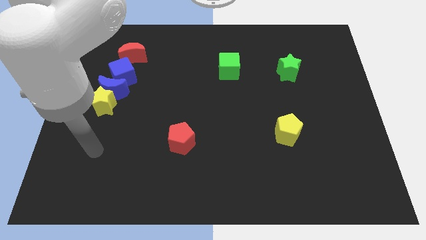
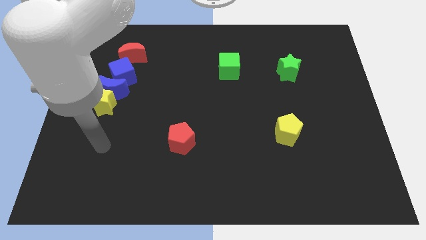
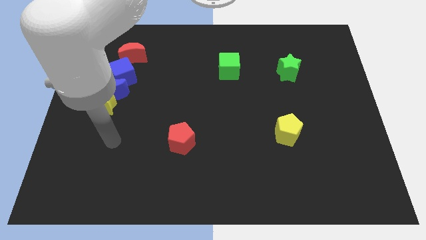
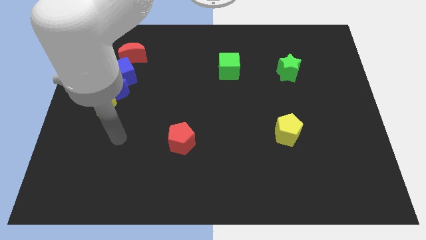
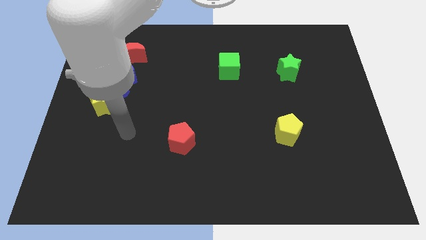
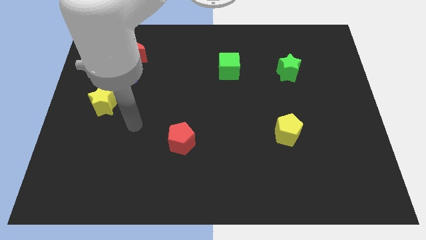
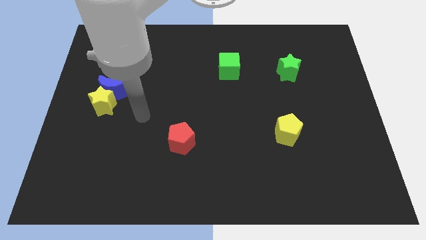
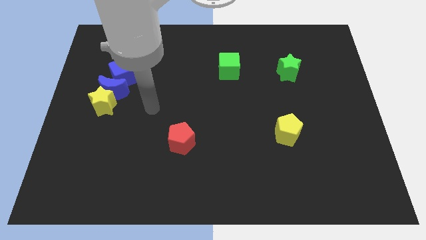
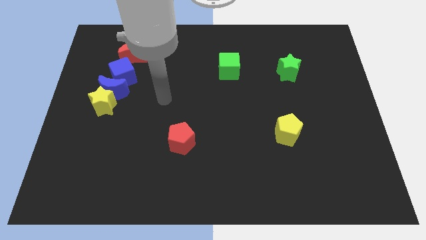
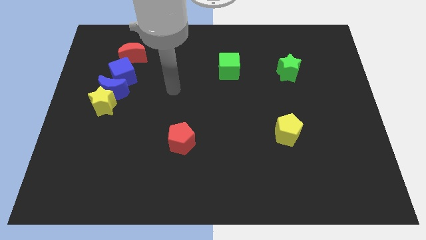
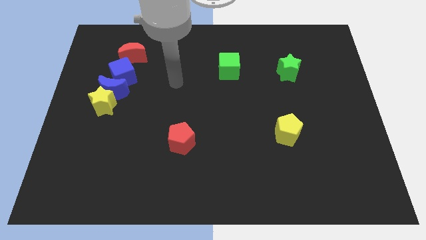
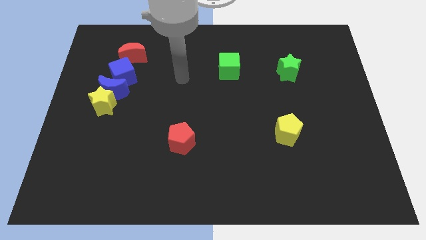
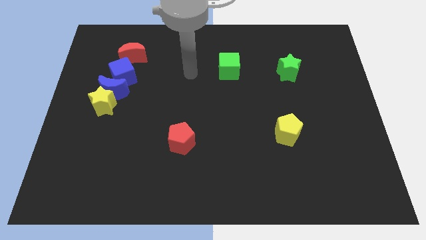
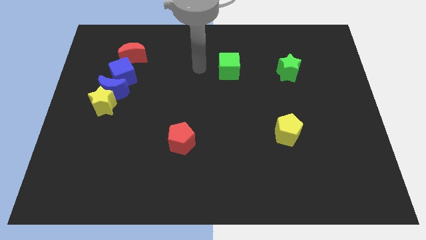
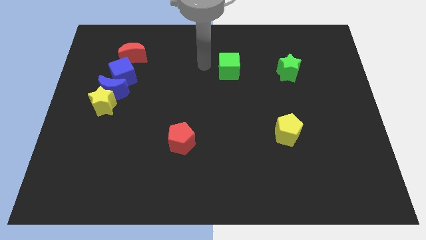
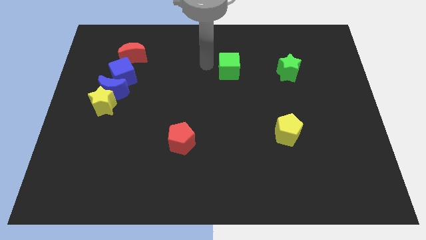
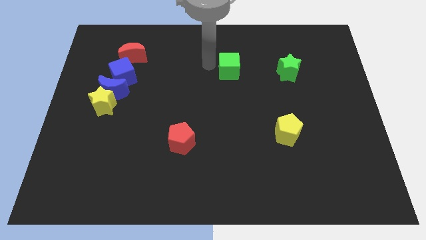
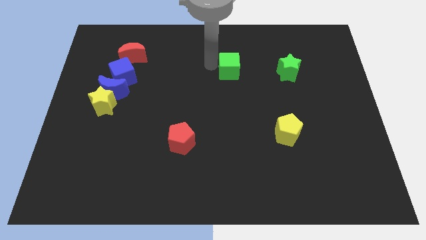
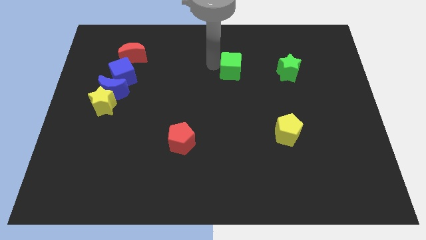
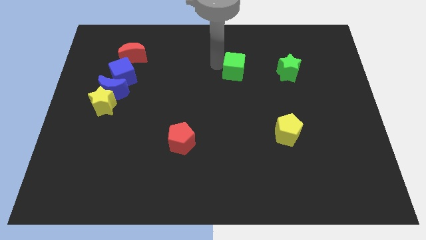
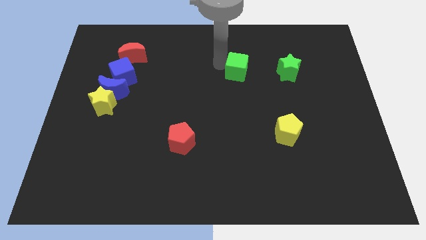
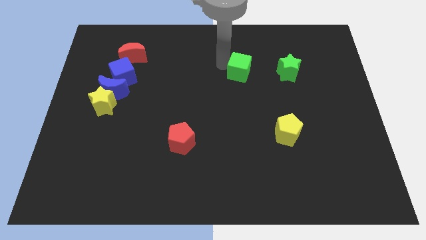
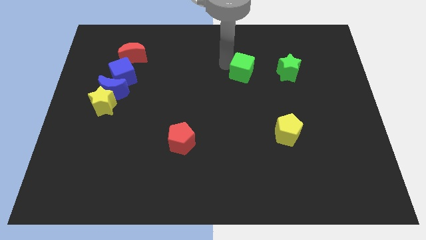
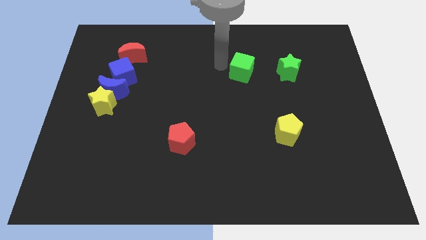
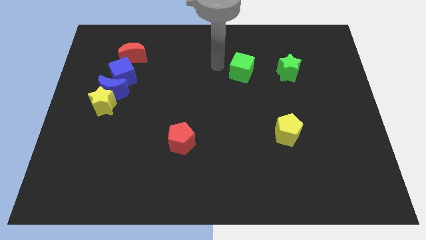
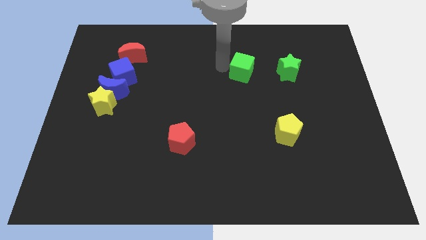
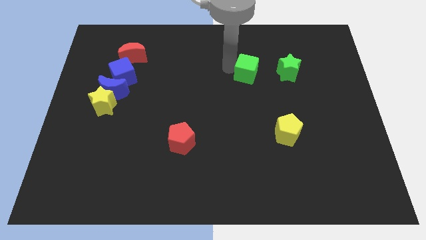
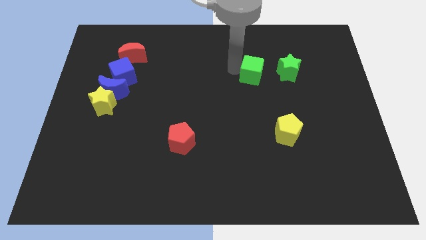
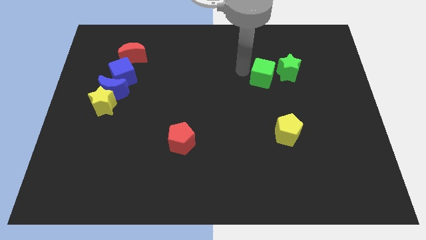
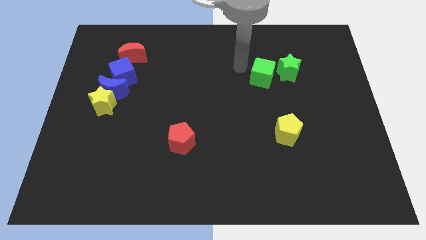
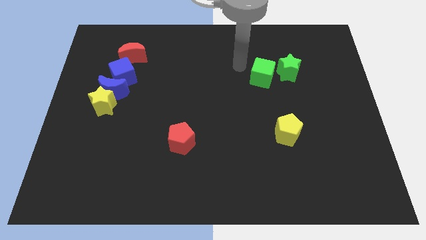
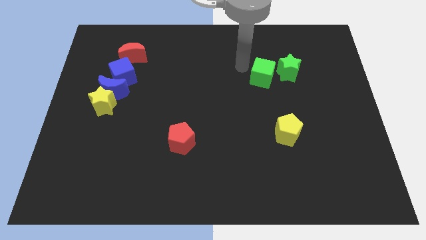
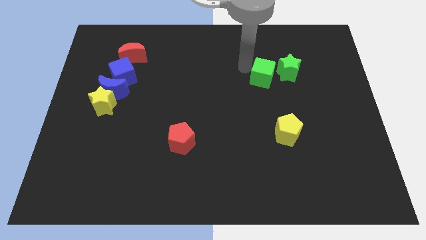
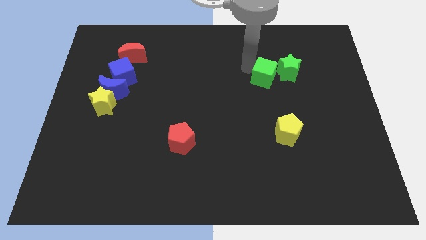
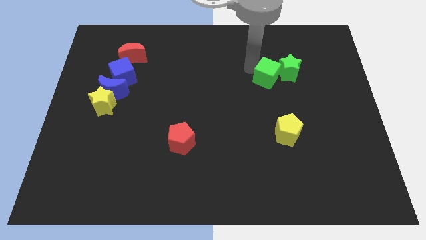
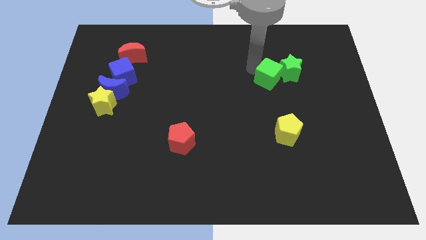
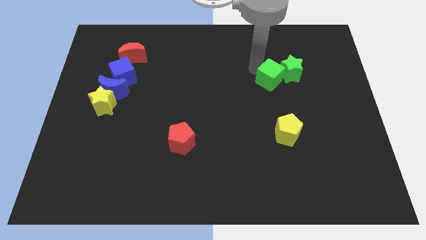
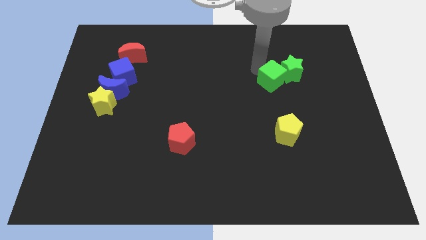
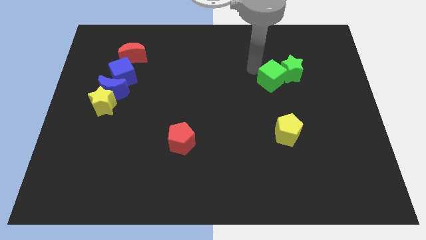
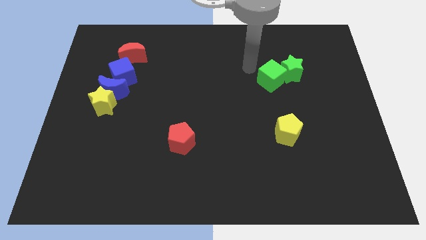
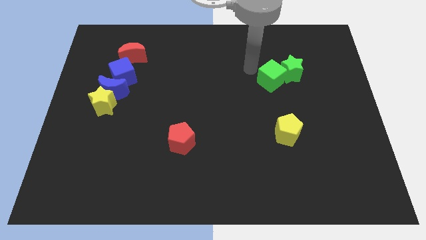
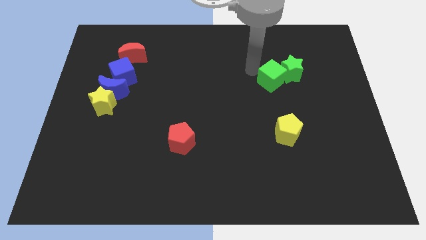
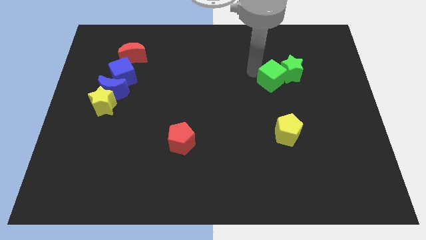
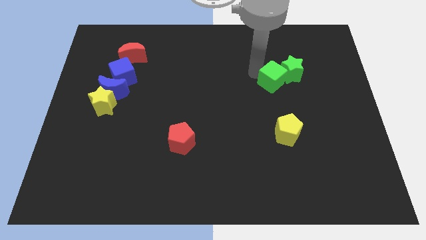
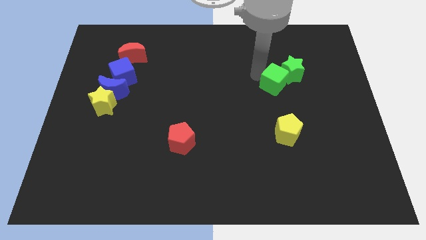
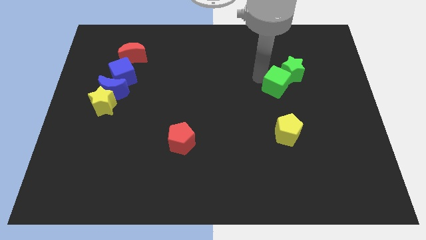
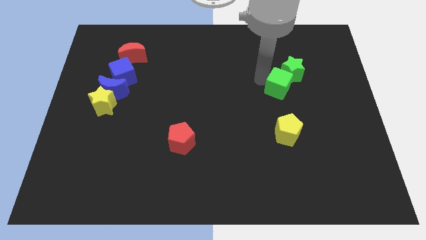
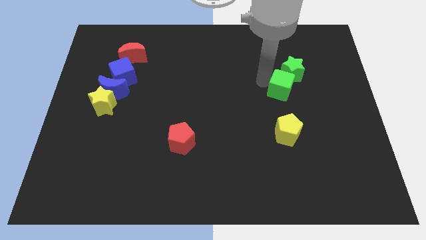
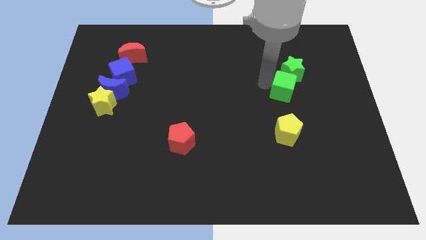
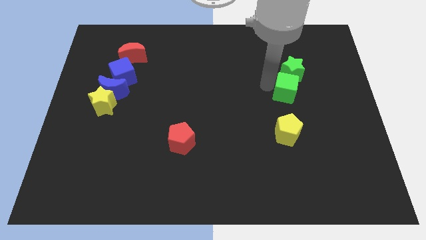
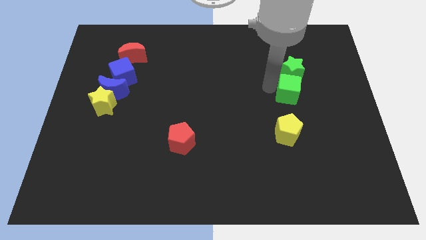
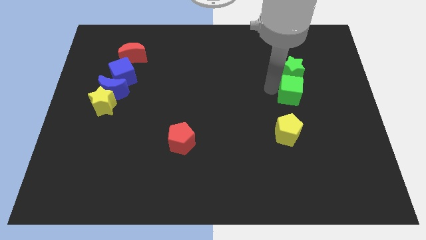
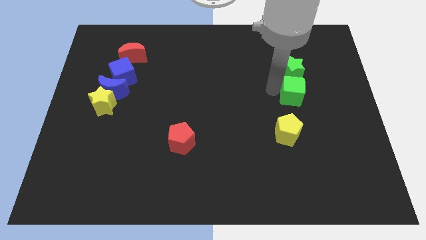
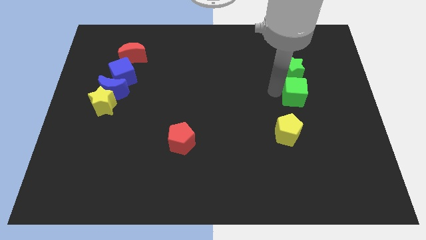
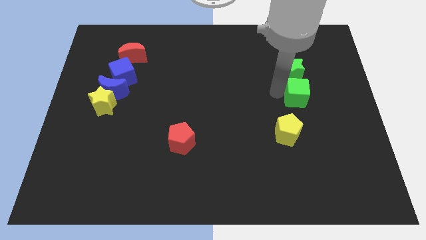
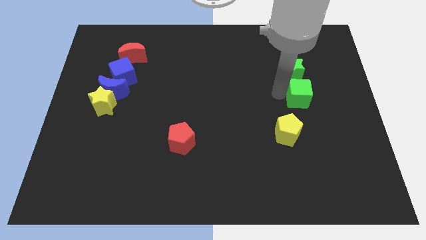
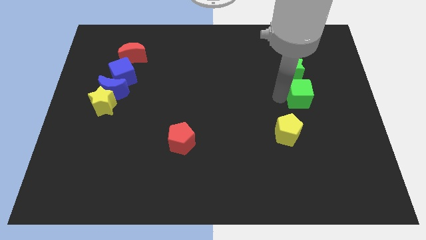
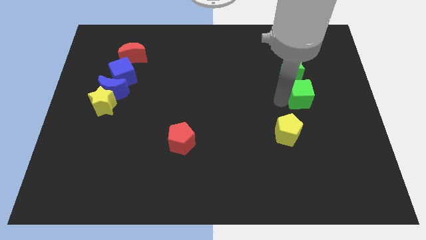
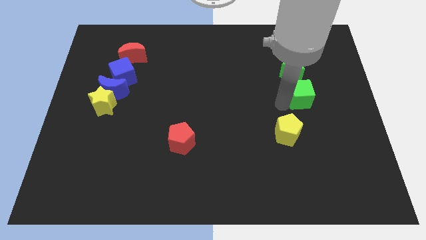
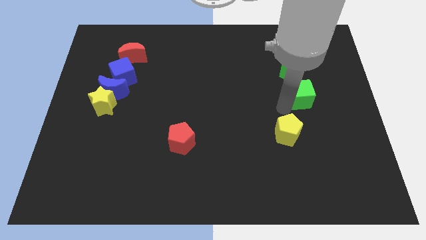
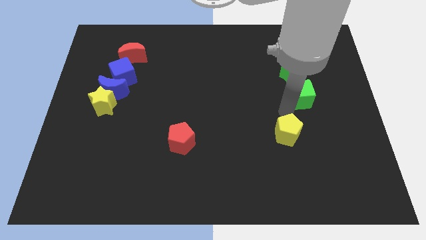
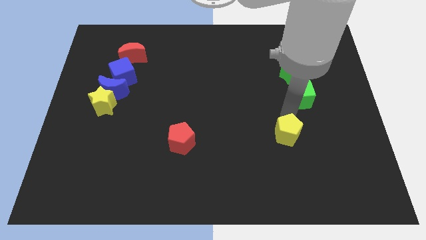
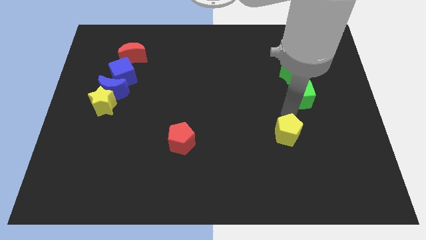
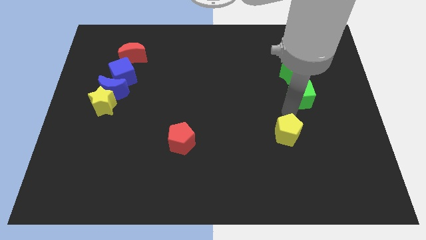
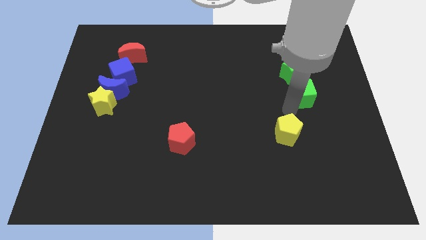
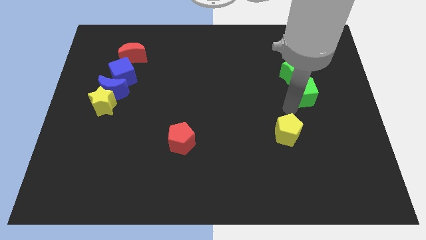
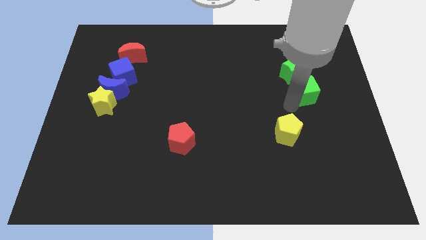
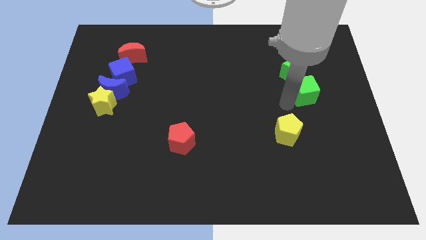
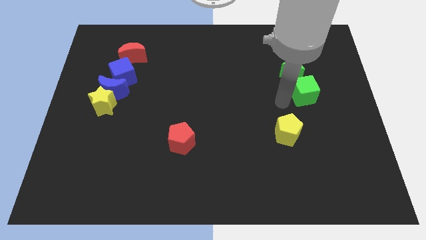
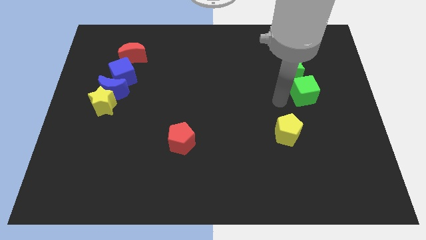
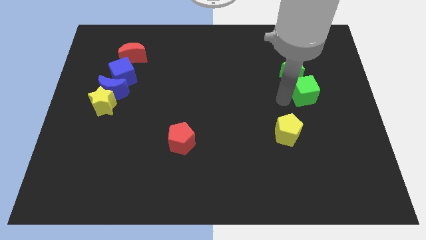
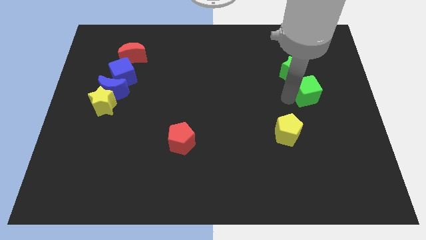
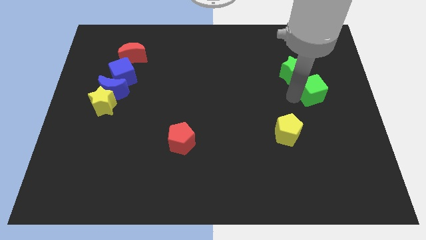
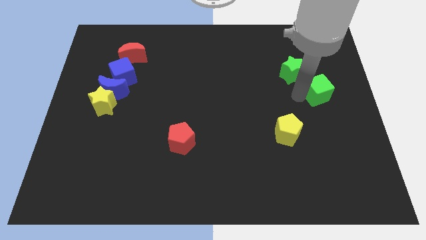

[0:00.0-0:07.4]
move the green cube to the right side of the board

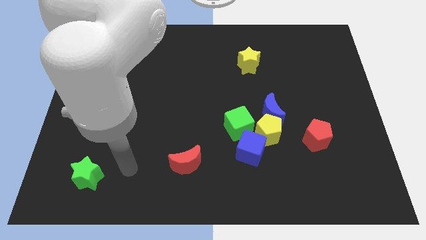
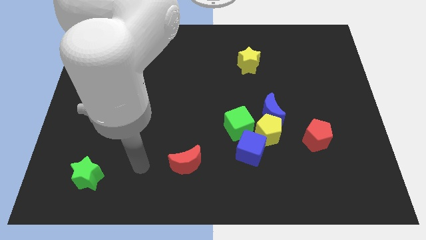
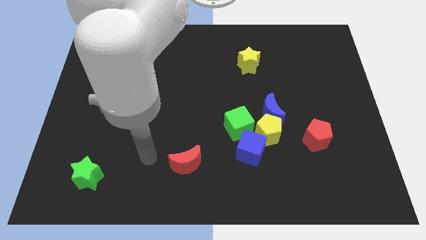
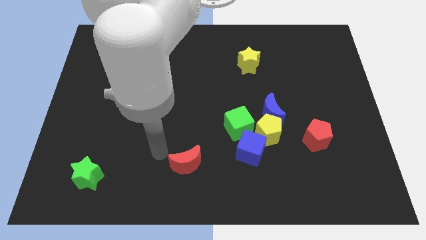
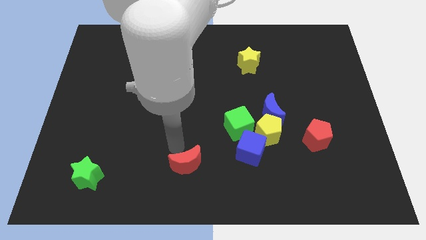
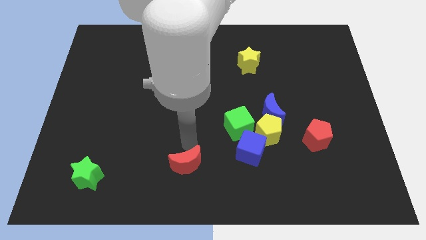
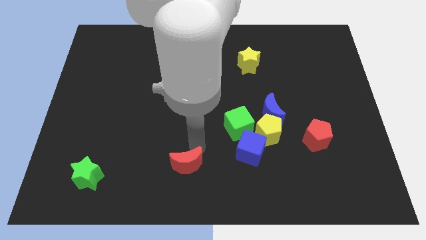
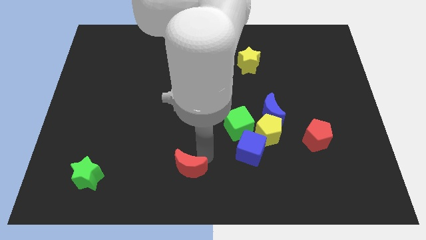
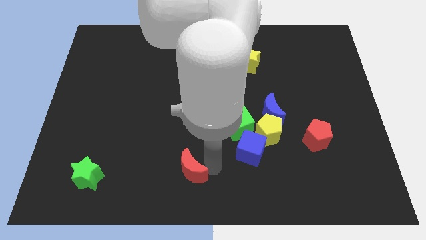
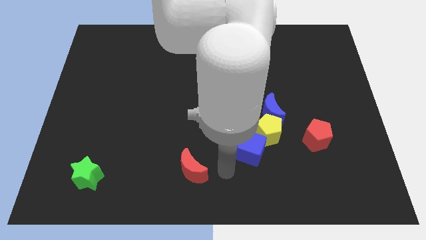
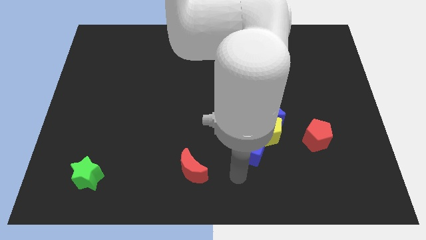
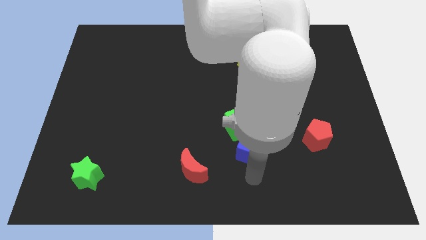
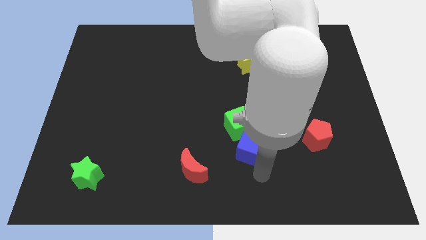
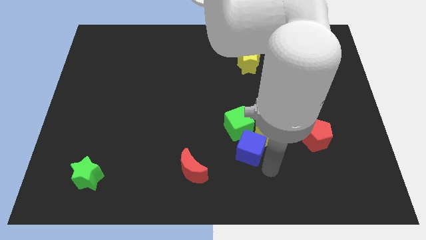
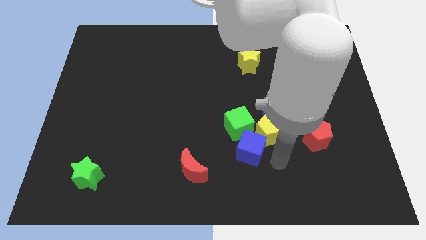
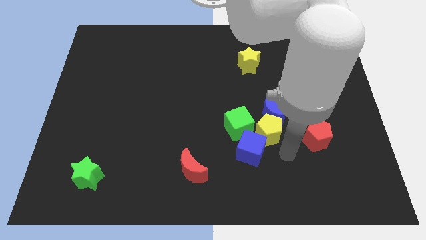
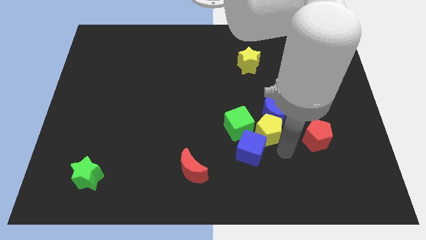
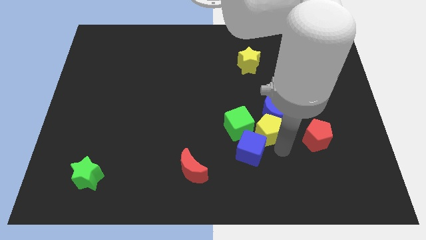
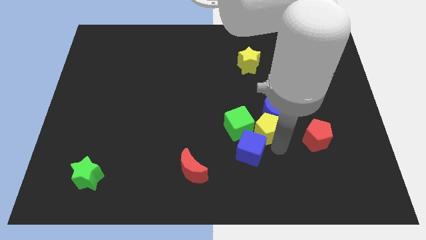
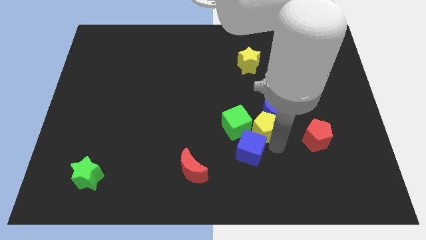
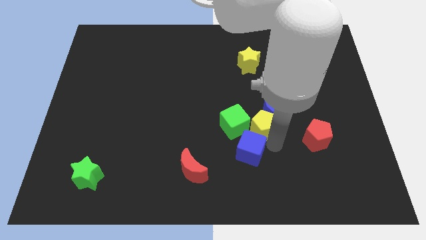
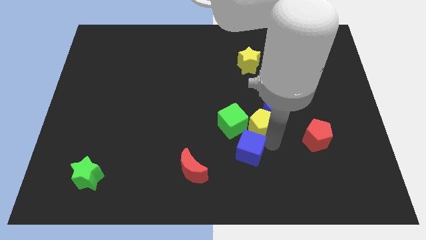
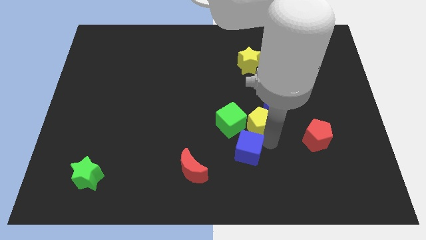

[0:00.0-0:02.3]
push the yellow pentagon to the center of the board
